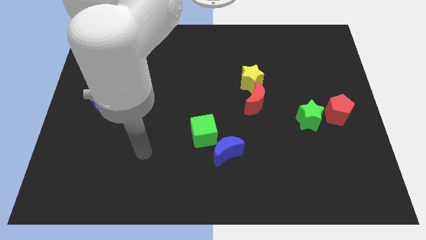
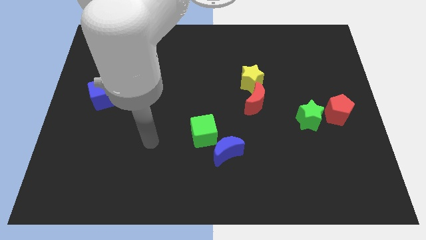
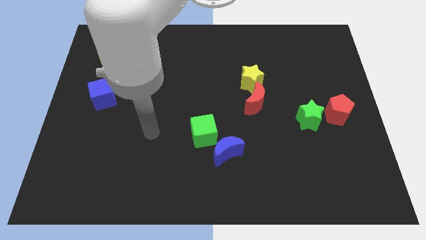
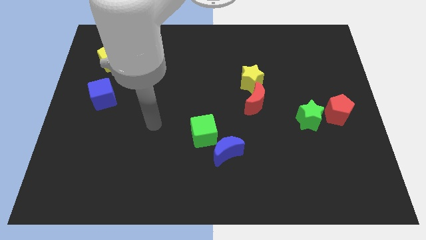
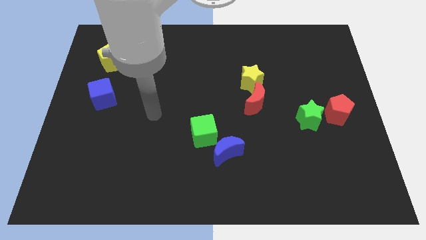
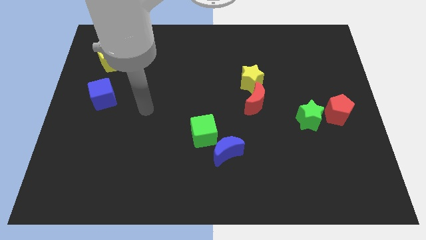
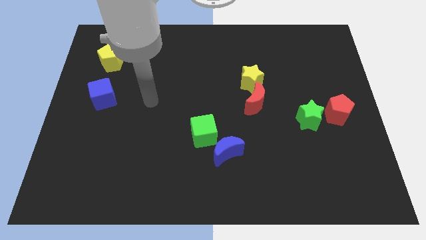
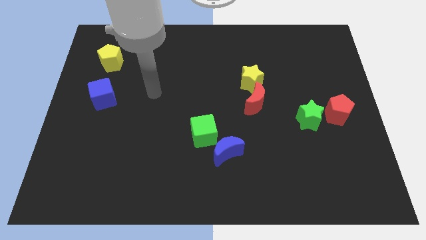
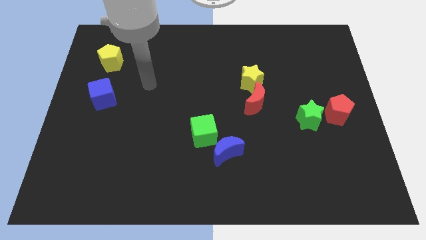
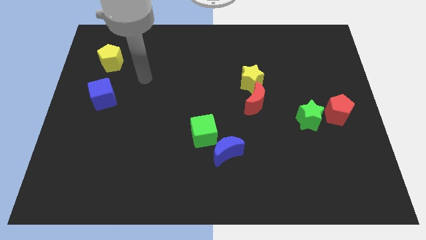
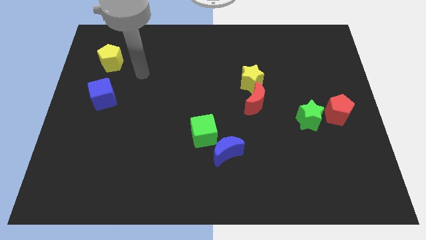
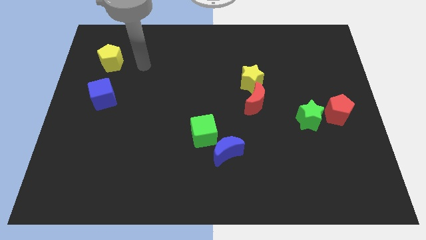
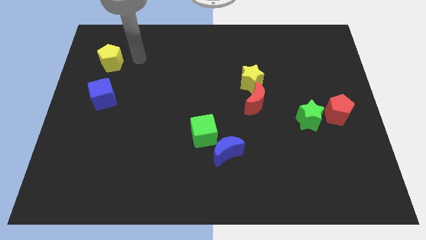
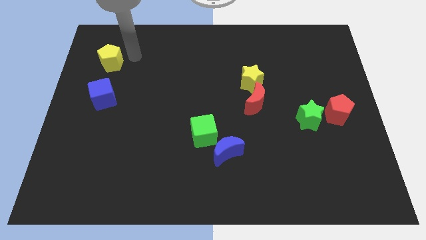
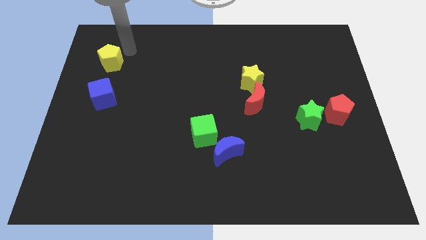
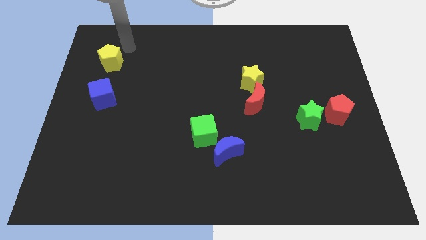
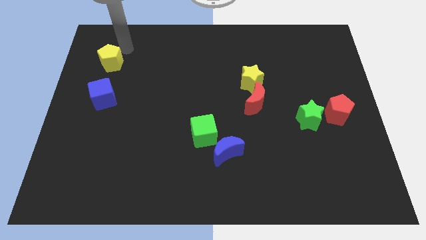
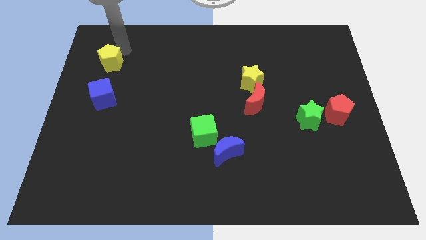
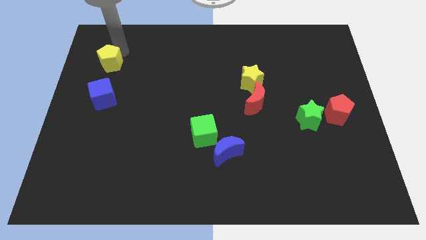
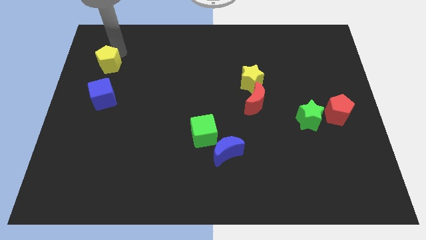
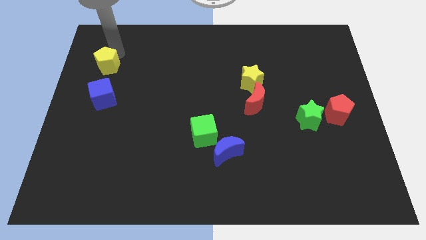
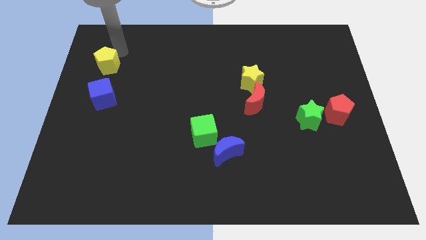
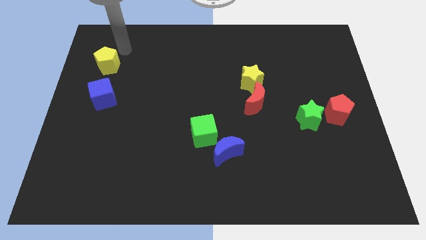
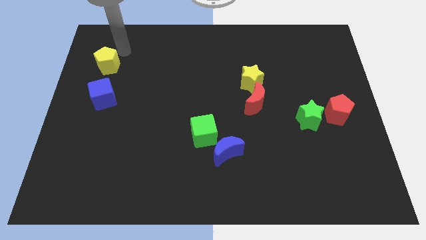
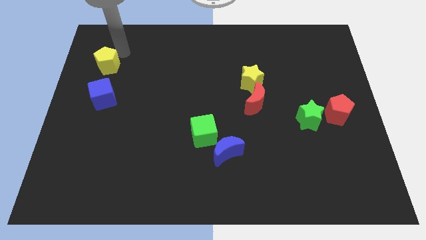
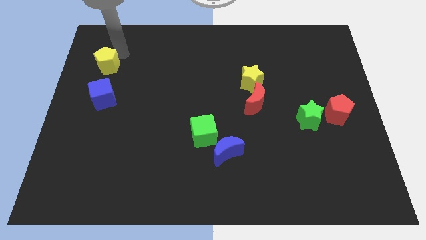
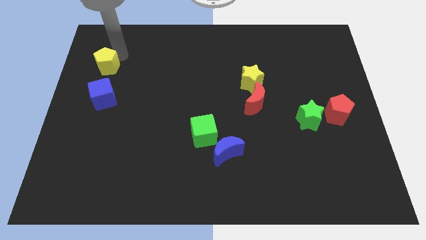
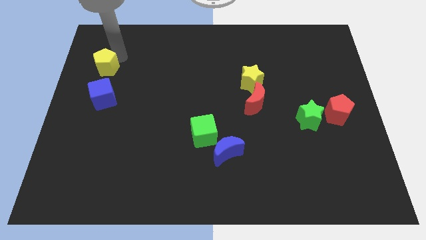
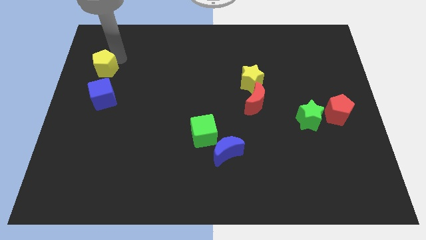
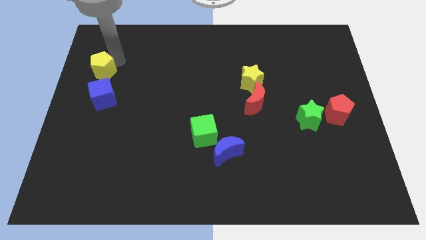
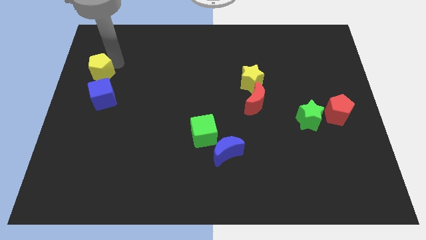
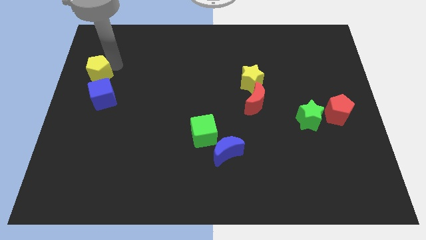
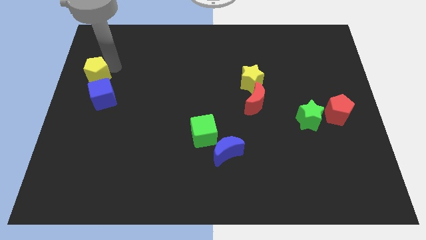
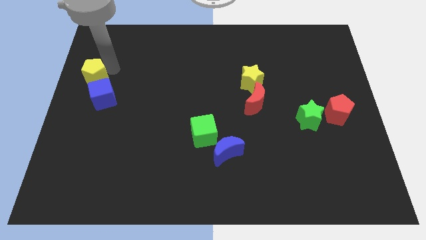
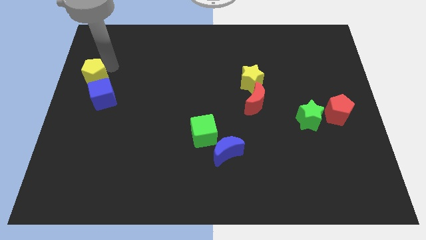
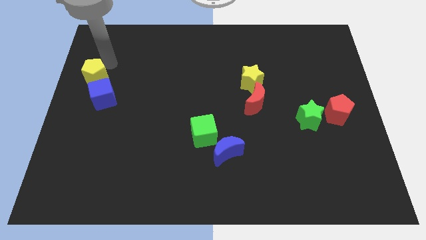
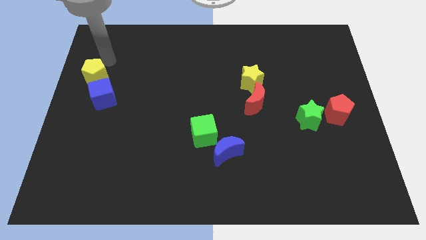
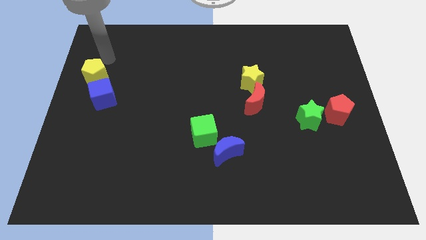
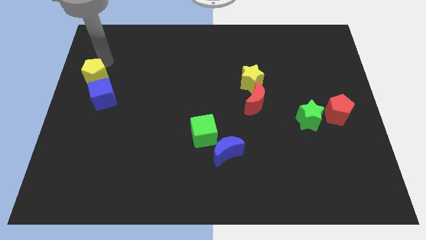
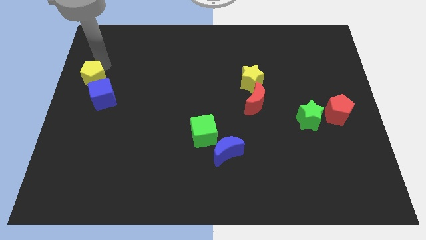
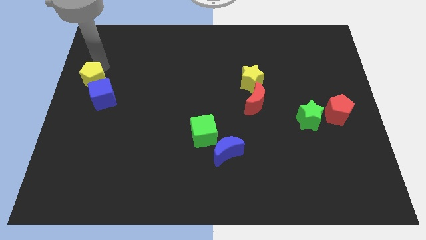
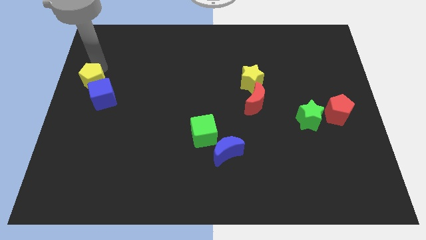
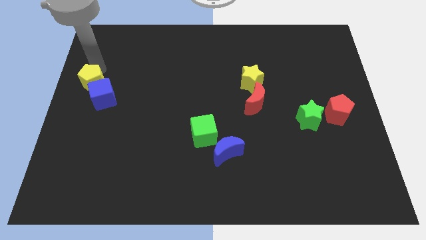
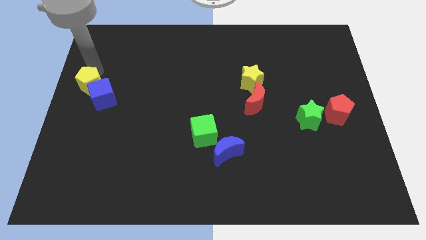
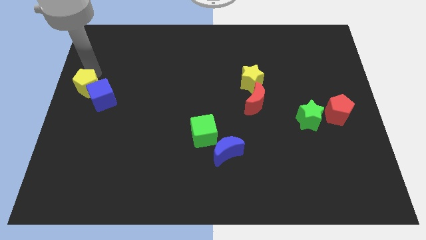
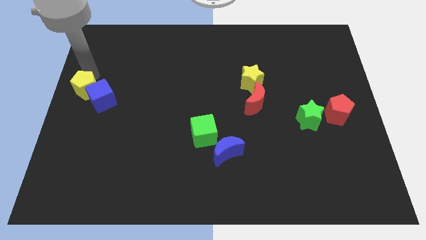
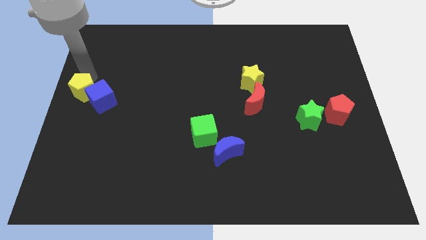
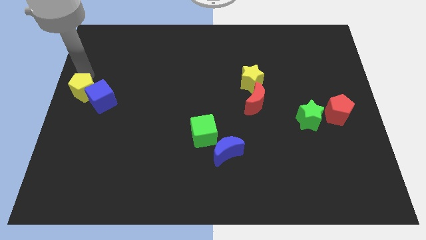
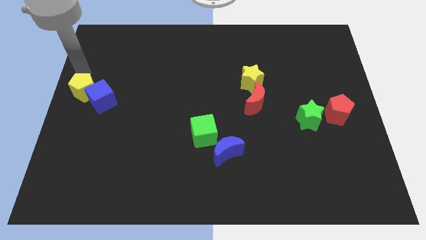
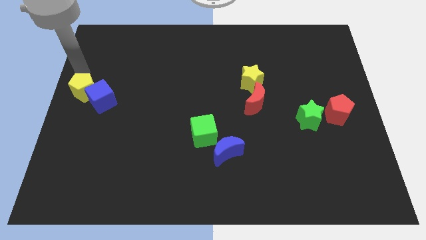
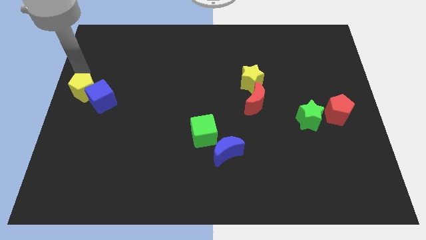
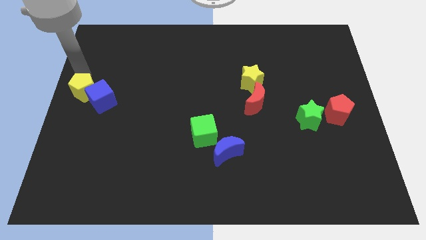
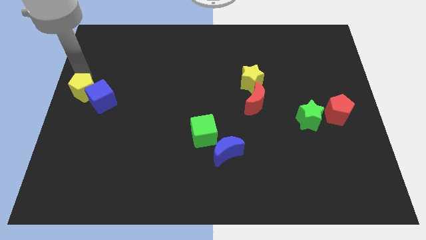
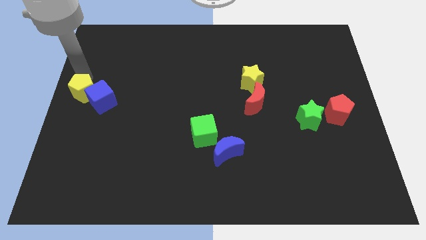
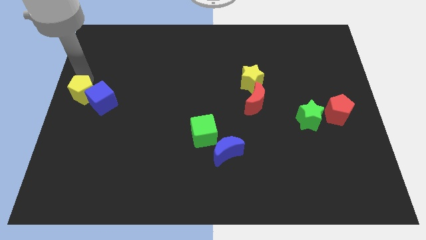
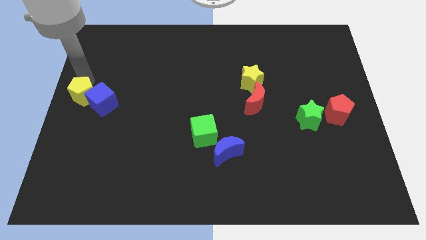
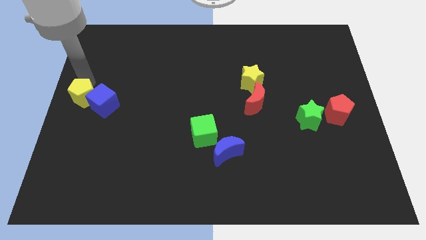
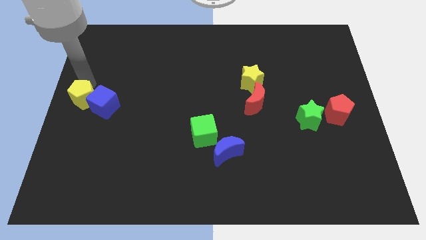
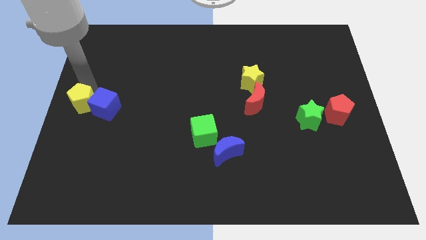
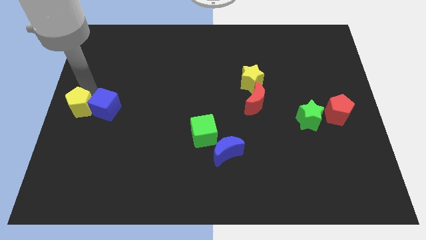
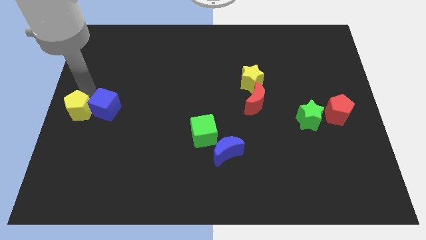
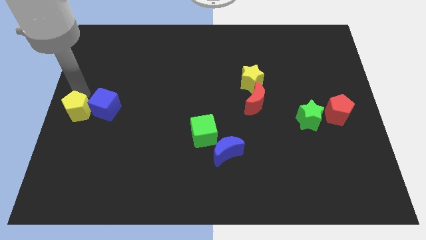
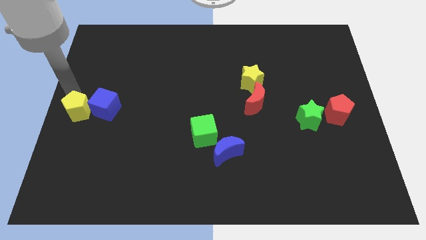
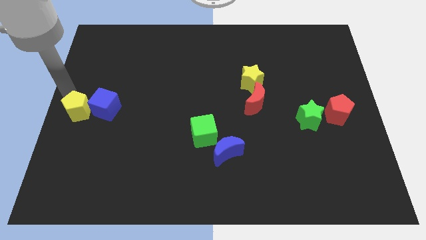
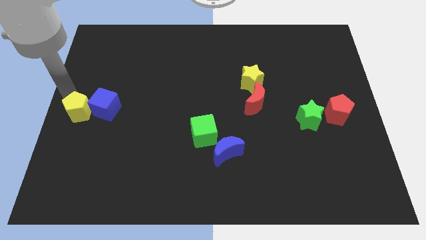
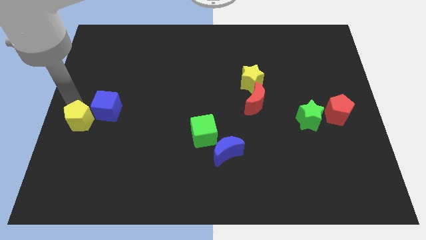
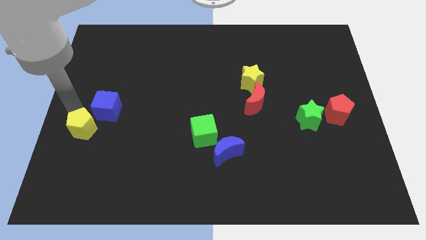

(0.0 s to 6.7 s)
push the yellow pentagon below the blue cube

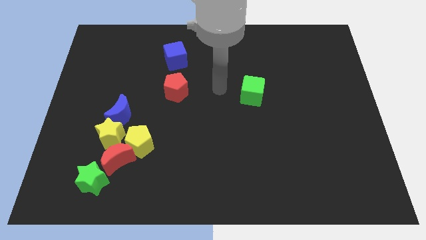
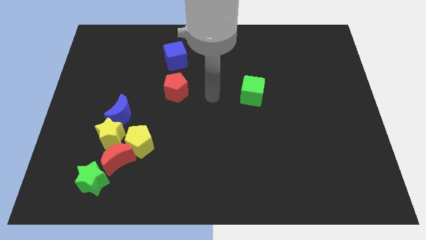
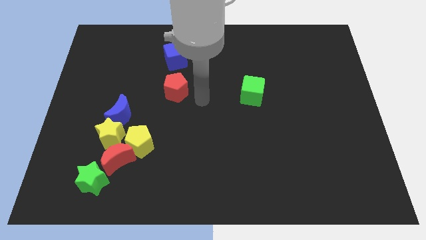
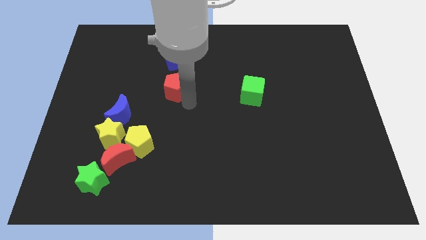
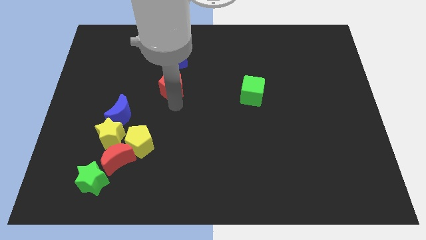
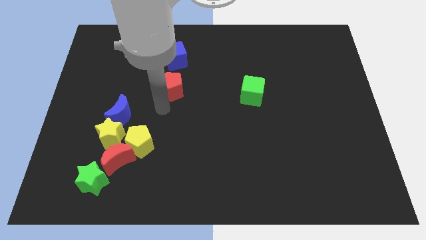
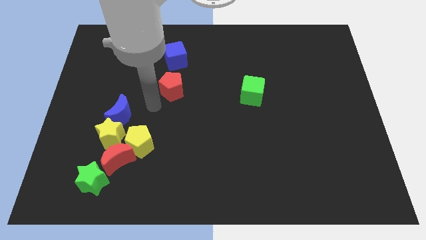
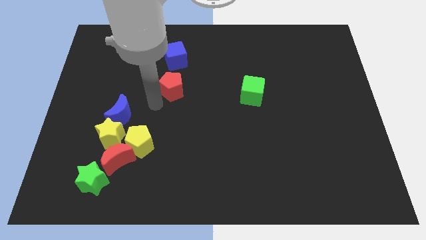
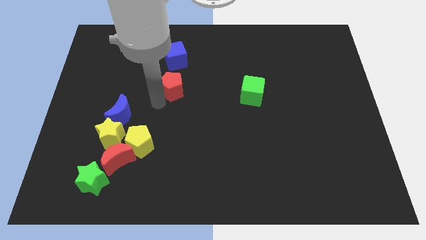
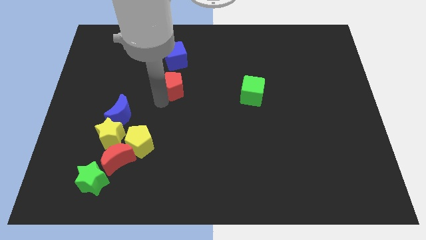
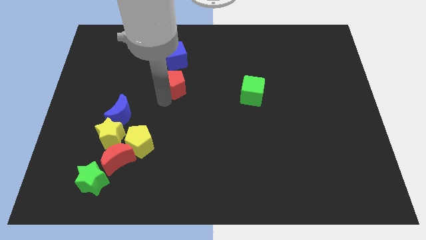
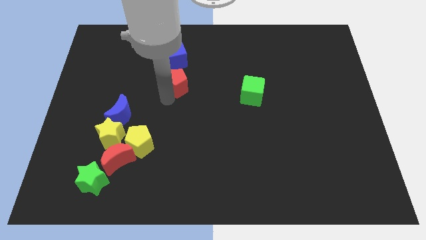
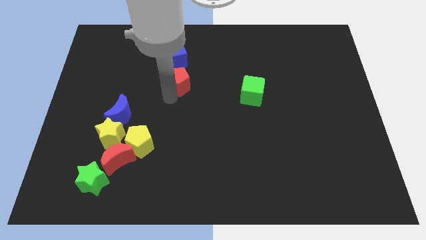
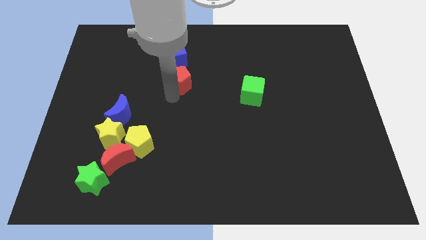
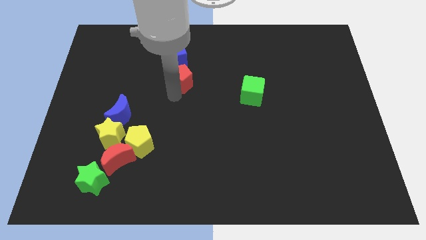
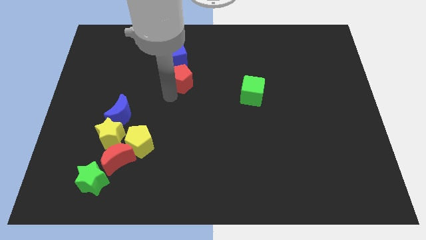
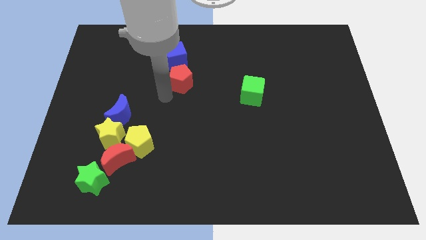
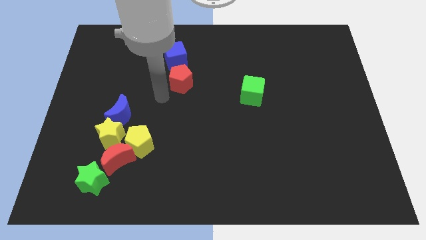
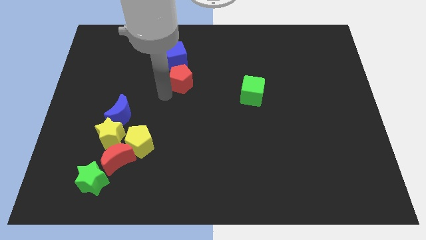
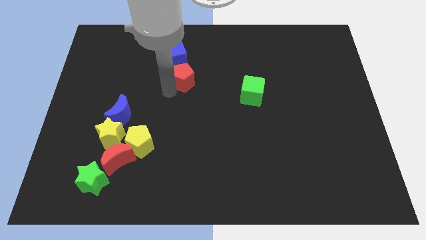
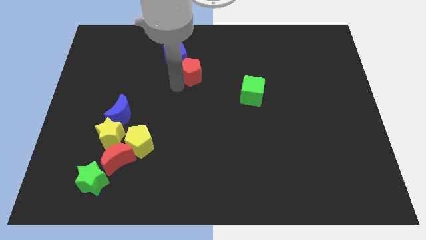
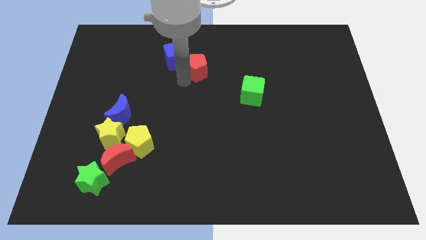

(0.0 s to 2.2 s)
move the red pentagon to the right of the blue cube
